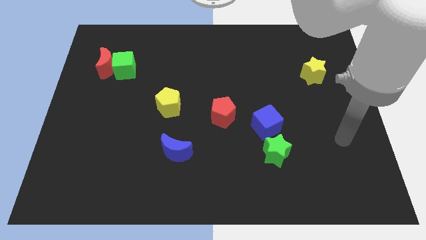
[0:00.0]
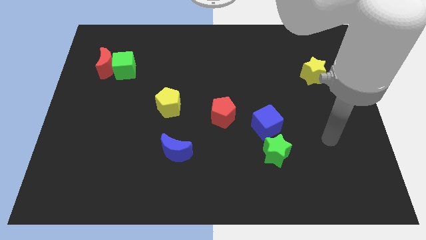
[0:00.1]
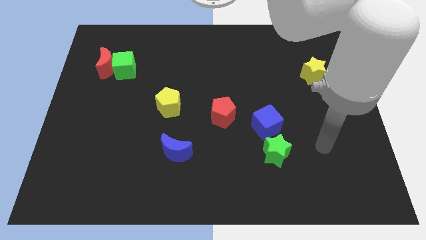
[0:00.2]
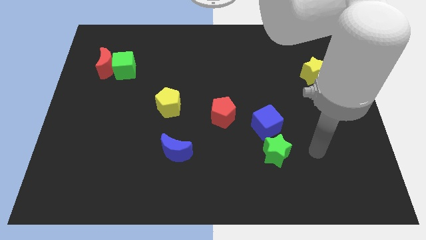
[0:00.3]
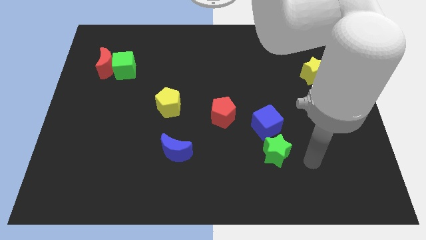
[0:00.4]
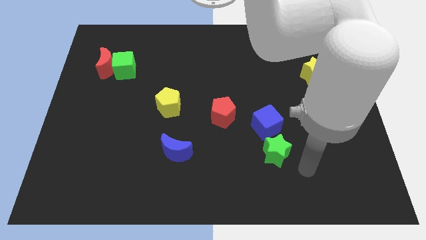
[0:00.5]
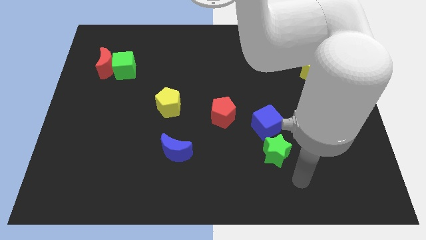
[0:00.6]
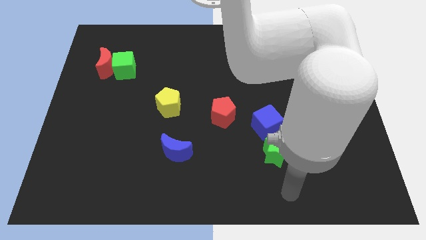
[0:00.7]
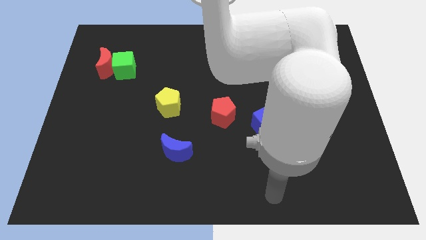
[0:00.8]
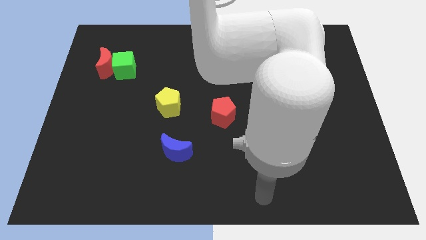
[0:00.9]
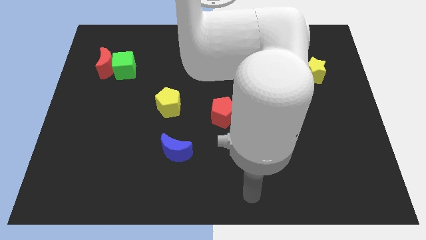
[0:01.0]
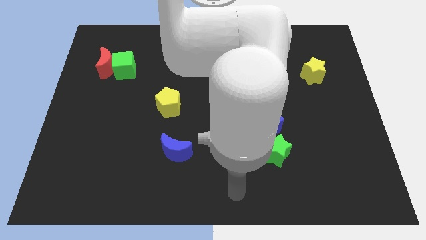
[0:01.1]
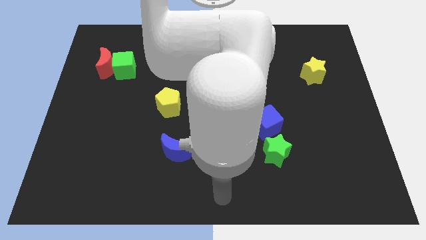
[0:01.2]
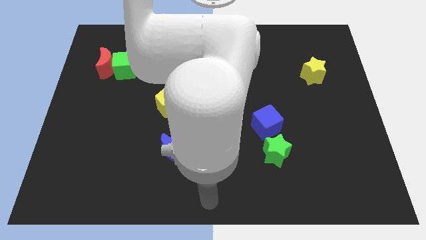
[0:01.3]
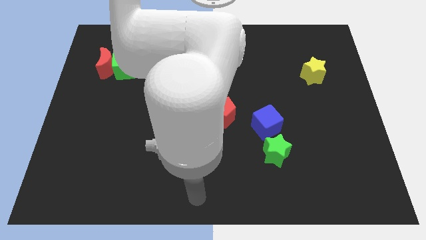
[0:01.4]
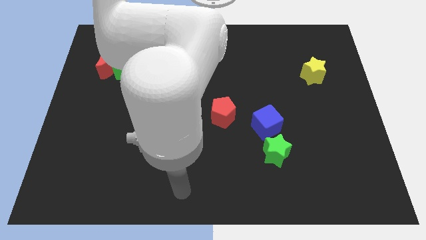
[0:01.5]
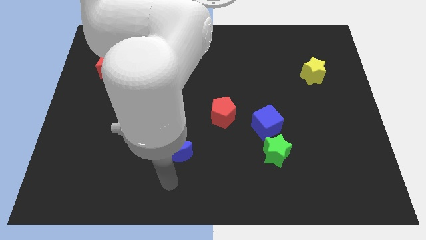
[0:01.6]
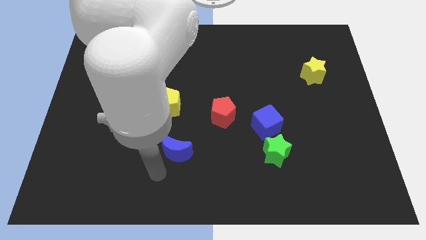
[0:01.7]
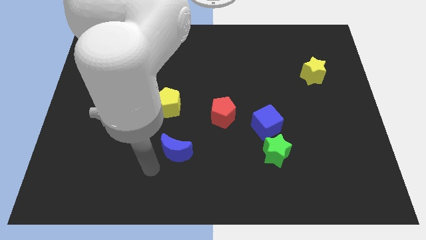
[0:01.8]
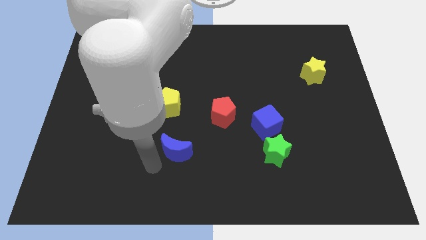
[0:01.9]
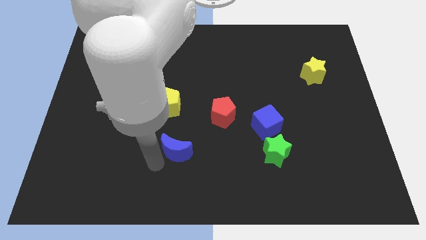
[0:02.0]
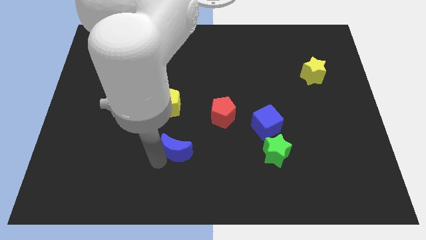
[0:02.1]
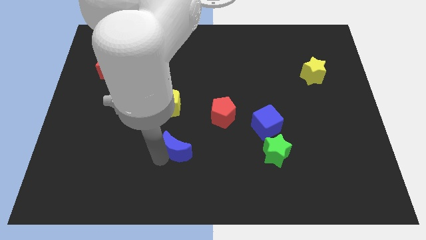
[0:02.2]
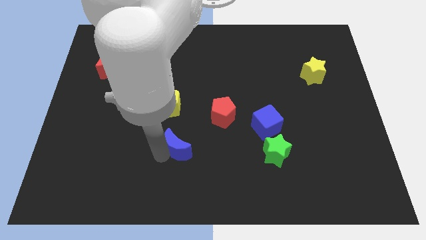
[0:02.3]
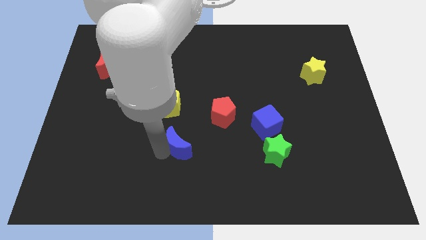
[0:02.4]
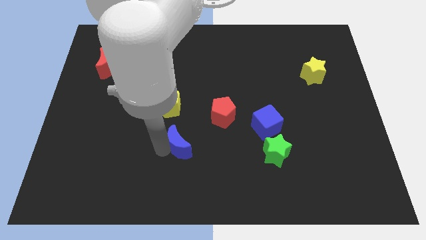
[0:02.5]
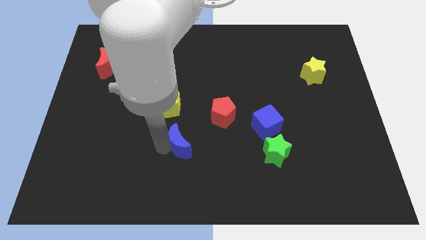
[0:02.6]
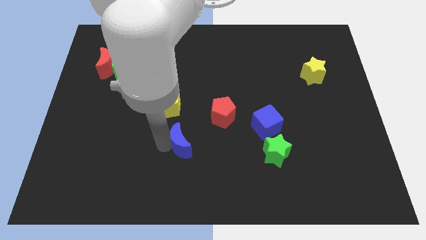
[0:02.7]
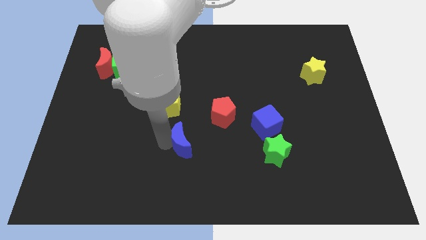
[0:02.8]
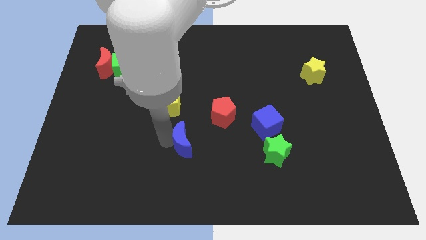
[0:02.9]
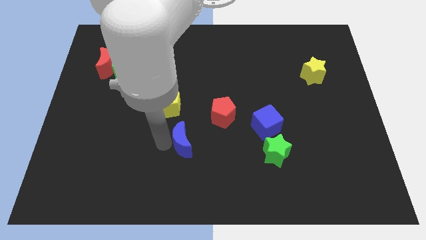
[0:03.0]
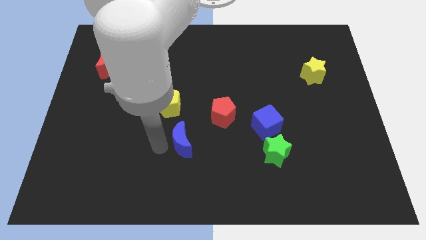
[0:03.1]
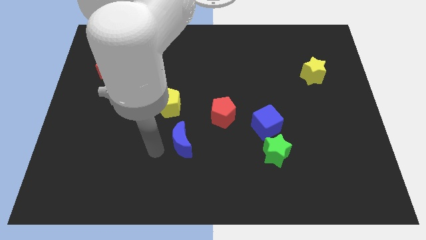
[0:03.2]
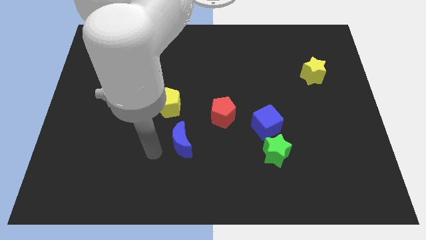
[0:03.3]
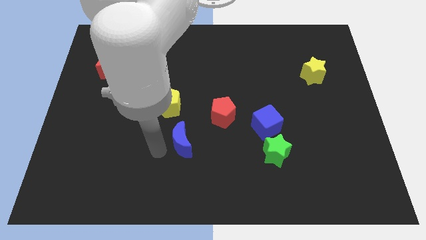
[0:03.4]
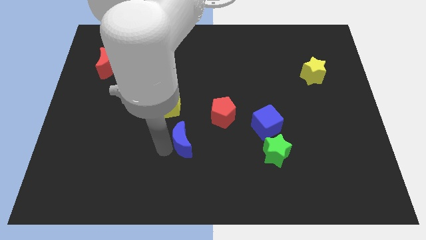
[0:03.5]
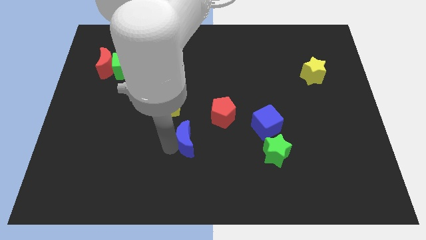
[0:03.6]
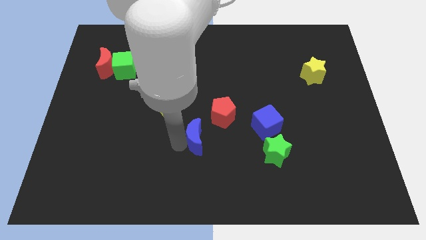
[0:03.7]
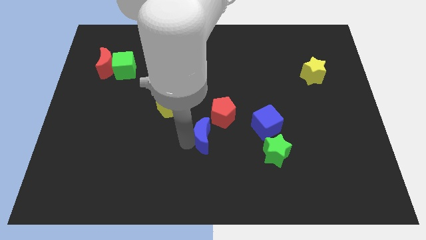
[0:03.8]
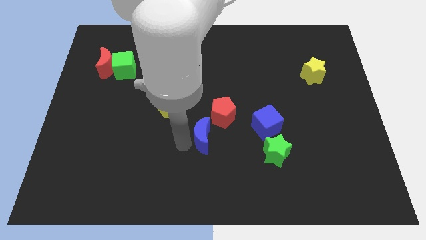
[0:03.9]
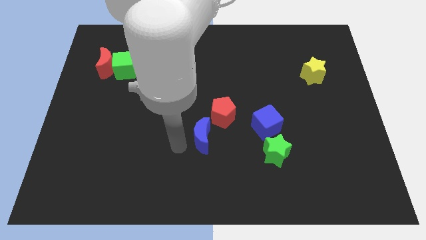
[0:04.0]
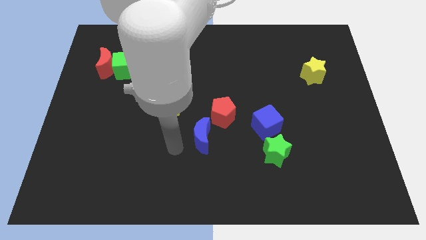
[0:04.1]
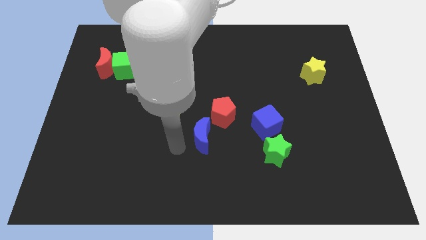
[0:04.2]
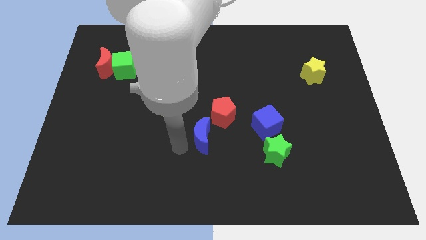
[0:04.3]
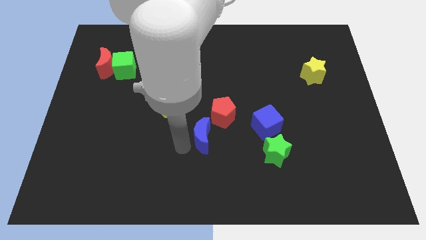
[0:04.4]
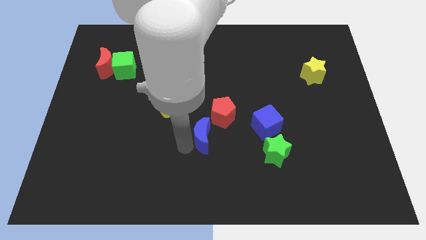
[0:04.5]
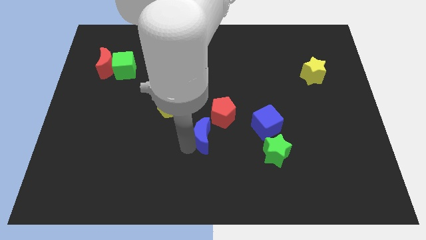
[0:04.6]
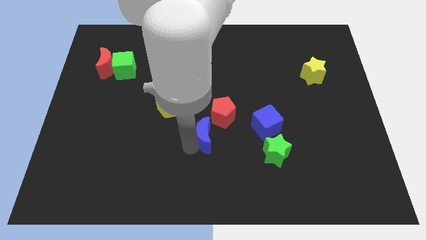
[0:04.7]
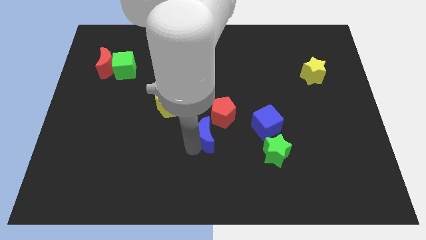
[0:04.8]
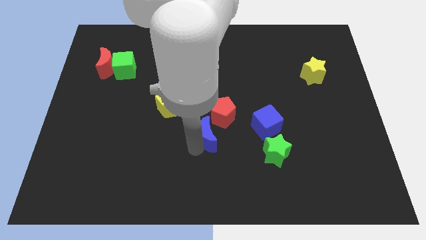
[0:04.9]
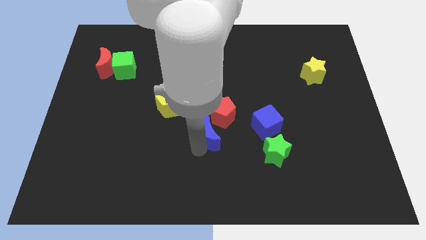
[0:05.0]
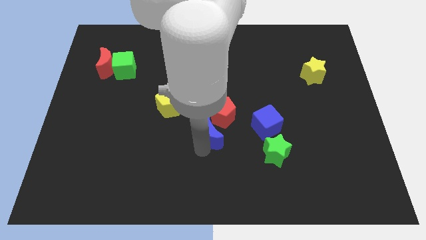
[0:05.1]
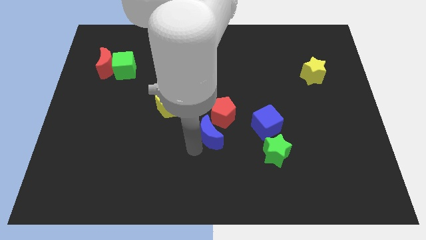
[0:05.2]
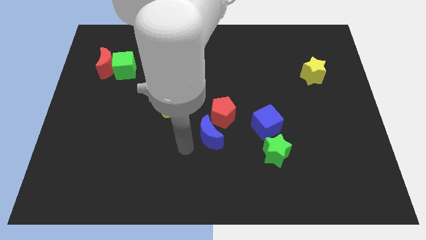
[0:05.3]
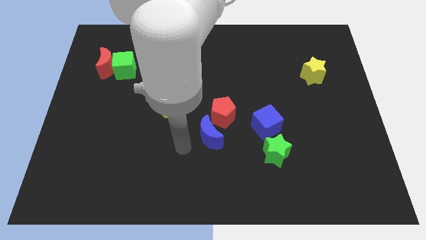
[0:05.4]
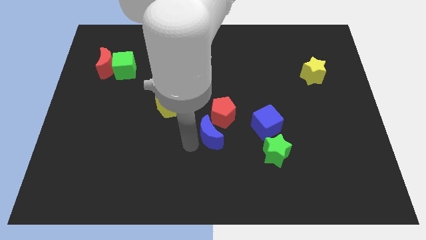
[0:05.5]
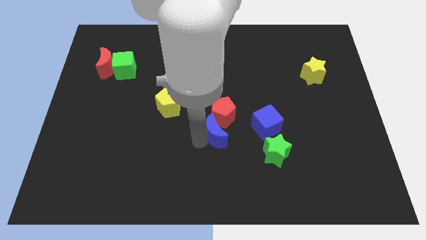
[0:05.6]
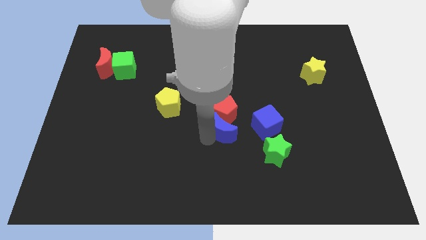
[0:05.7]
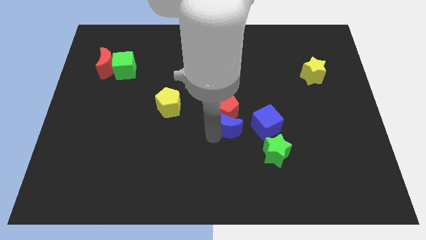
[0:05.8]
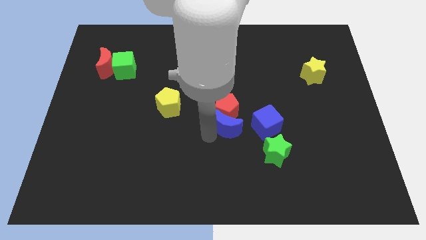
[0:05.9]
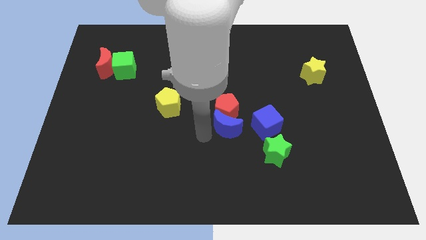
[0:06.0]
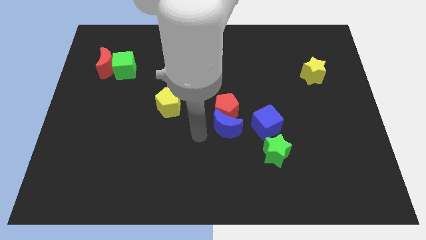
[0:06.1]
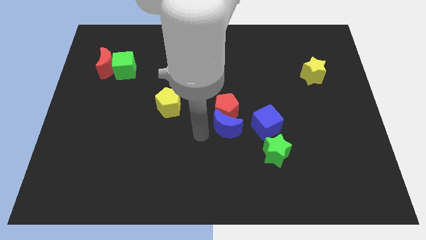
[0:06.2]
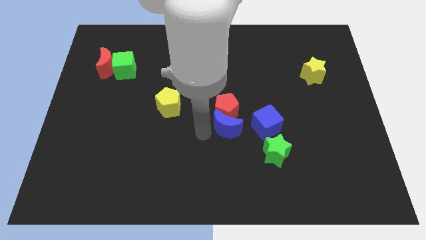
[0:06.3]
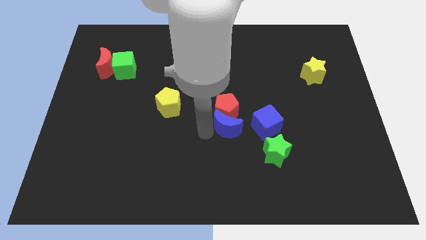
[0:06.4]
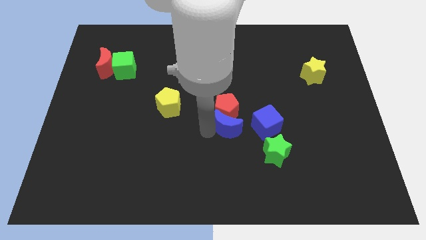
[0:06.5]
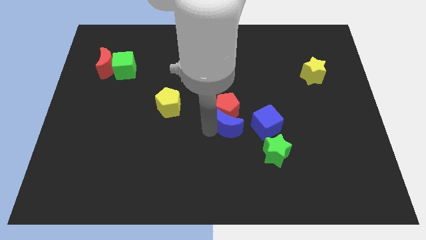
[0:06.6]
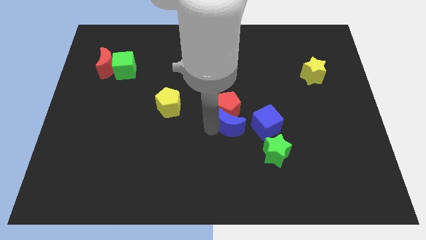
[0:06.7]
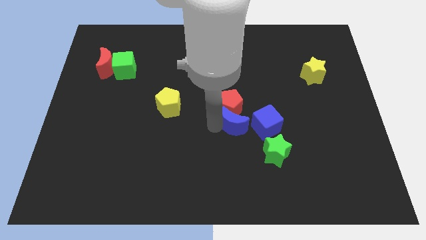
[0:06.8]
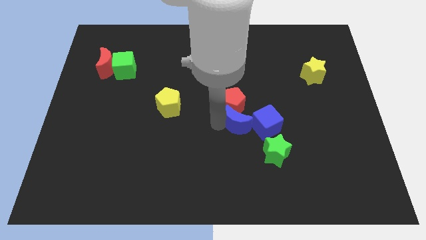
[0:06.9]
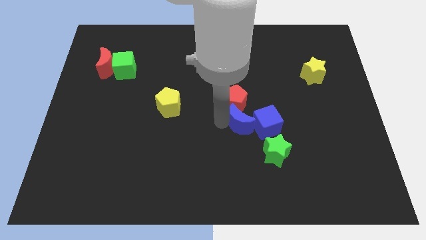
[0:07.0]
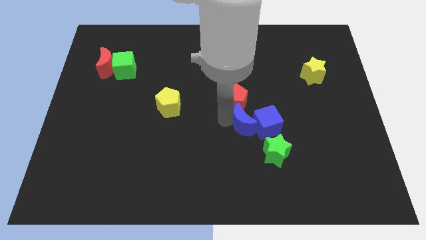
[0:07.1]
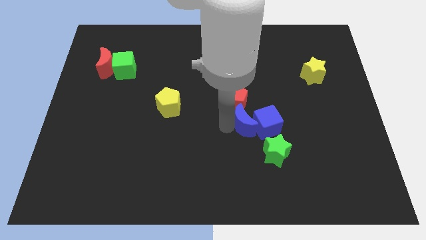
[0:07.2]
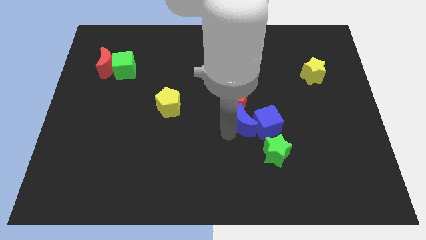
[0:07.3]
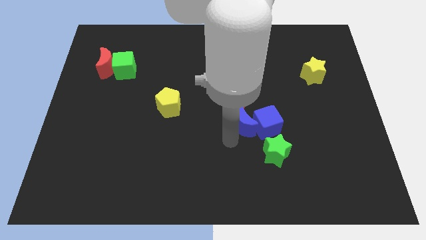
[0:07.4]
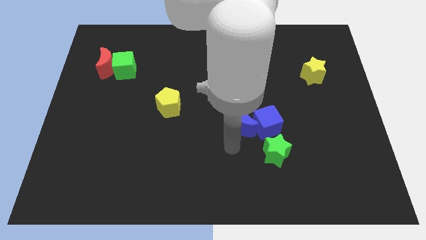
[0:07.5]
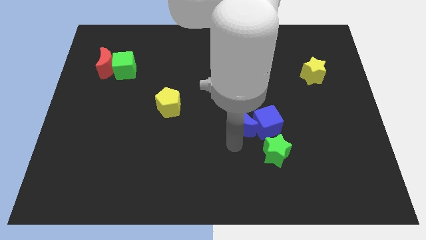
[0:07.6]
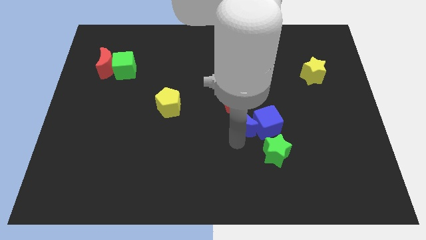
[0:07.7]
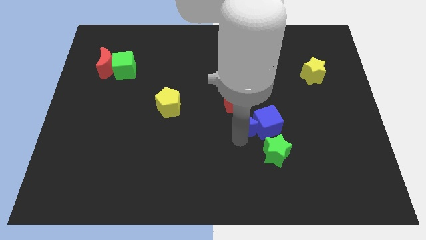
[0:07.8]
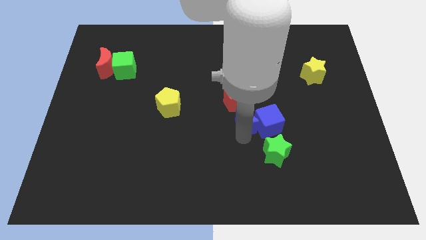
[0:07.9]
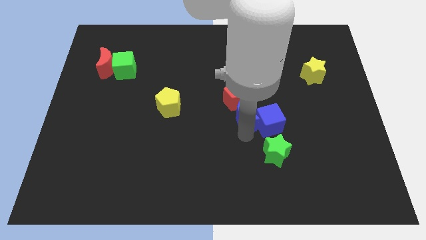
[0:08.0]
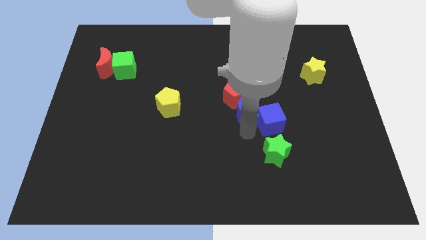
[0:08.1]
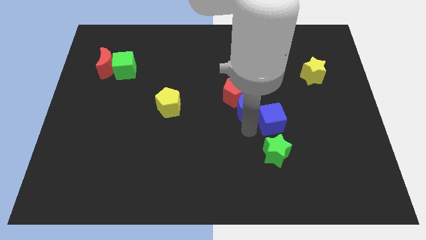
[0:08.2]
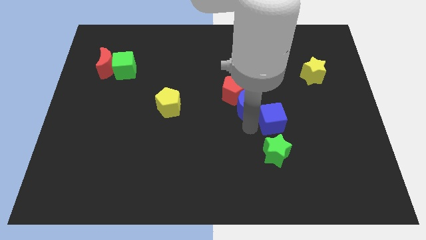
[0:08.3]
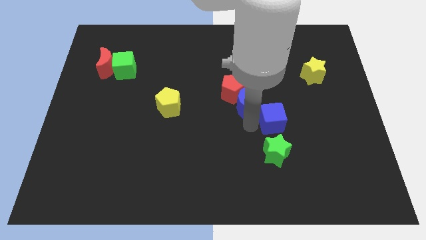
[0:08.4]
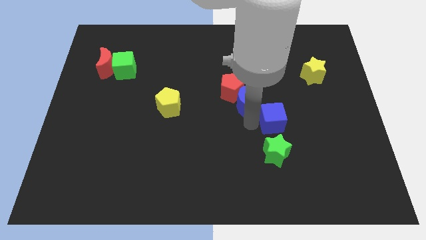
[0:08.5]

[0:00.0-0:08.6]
slide the blue moon upwards and to the right
